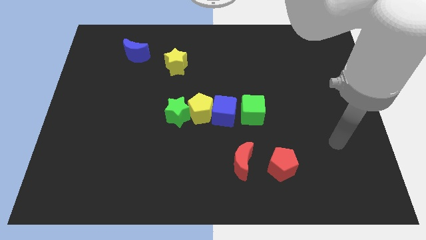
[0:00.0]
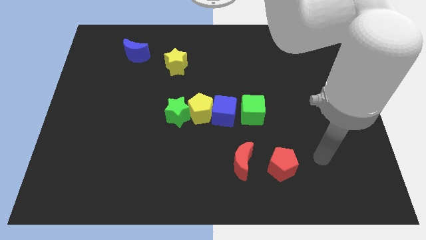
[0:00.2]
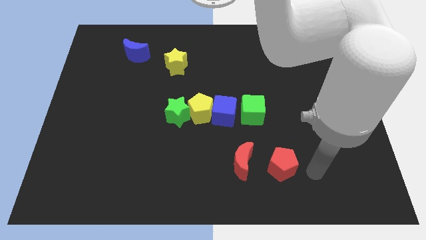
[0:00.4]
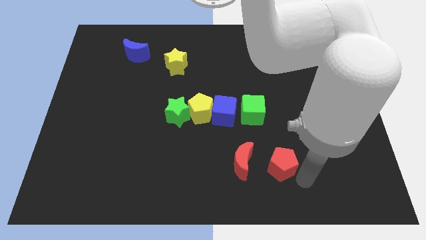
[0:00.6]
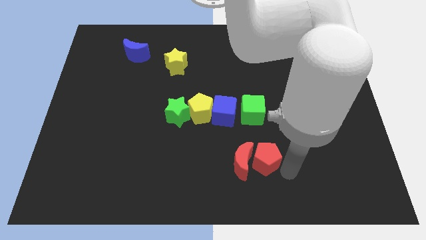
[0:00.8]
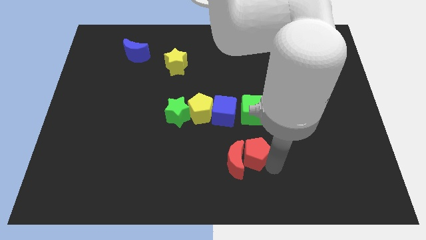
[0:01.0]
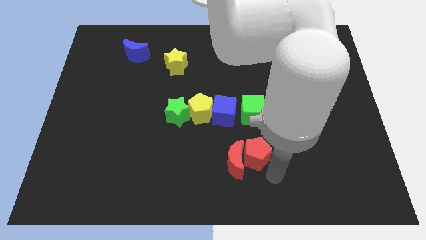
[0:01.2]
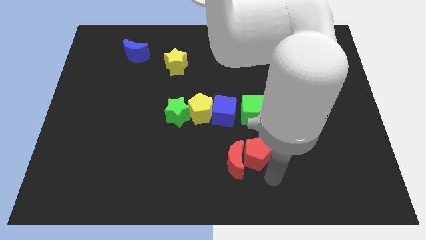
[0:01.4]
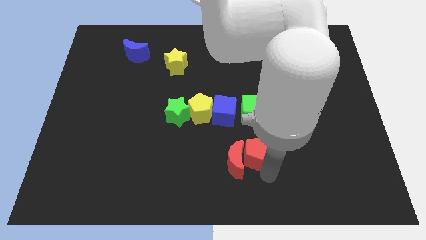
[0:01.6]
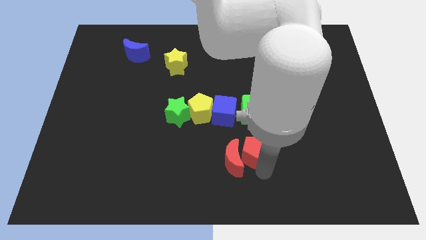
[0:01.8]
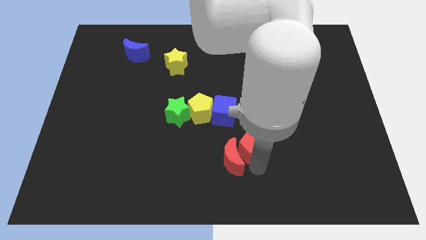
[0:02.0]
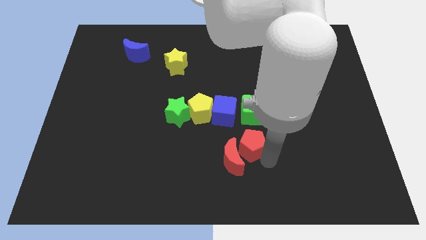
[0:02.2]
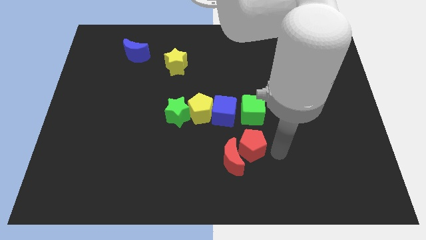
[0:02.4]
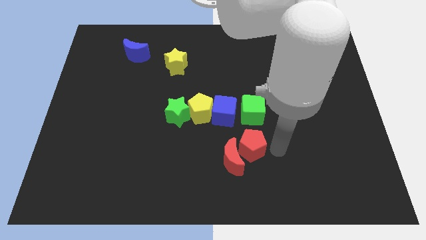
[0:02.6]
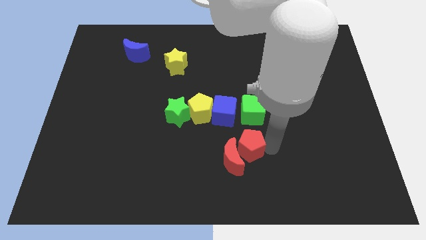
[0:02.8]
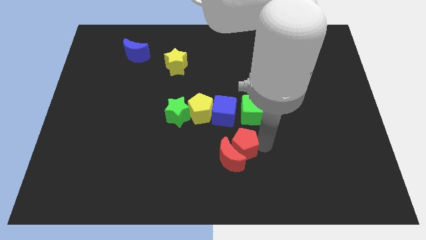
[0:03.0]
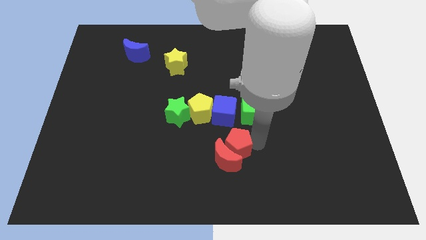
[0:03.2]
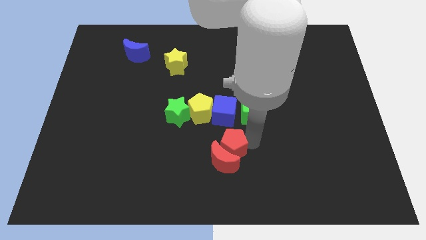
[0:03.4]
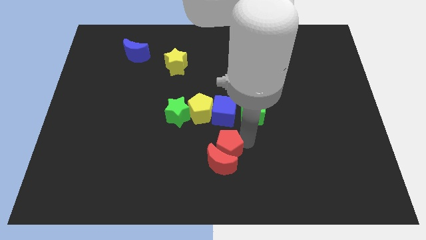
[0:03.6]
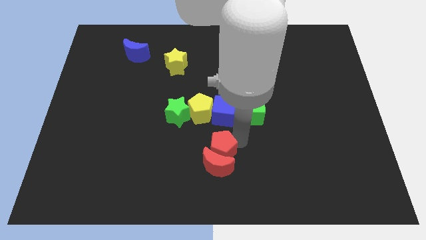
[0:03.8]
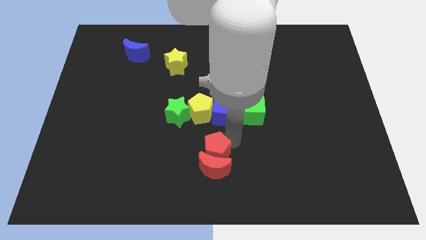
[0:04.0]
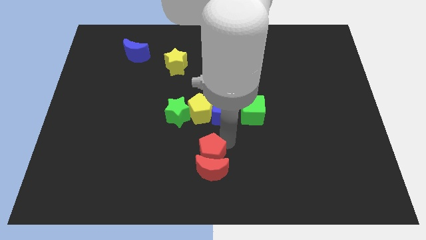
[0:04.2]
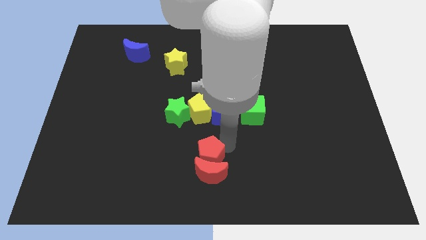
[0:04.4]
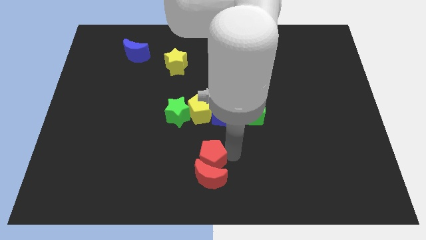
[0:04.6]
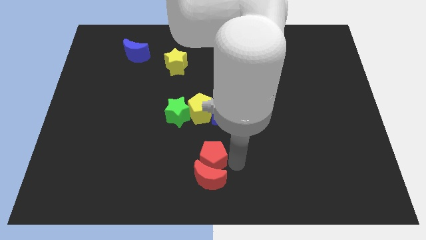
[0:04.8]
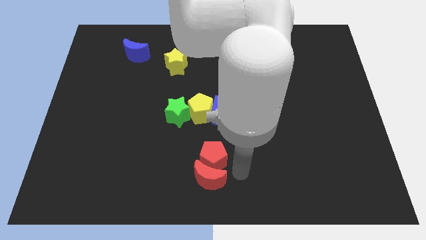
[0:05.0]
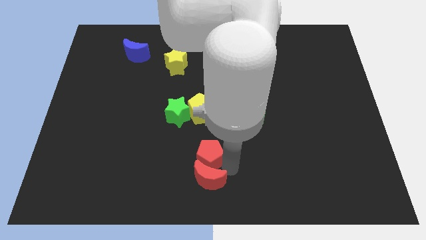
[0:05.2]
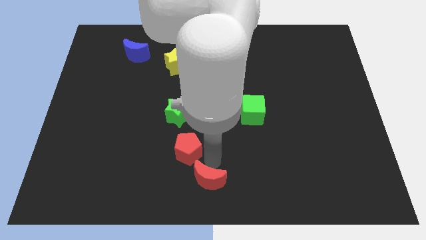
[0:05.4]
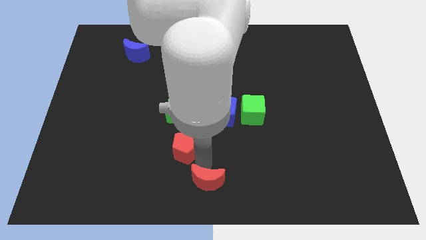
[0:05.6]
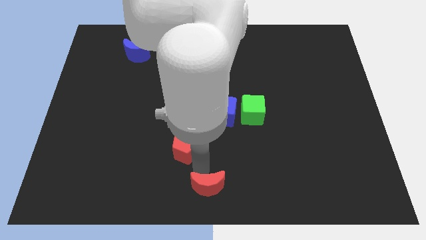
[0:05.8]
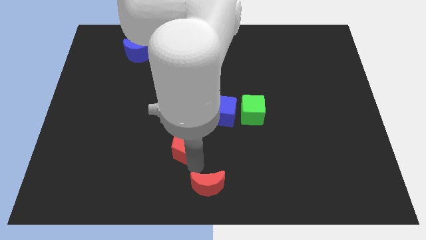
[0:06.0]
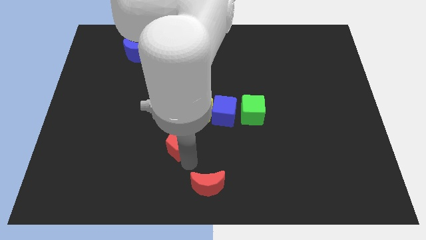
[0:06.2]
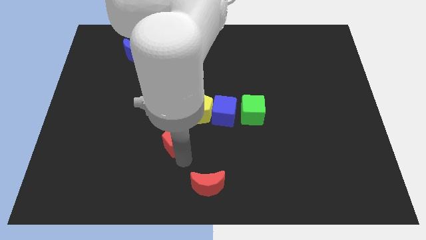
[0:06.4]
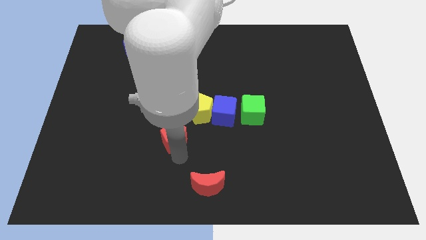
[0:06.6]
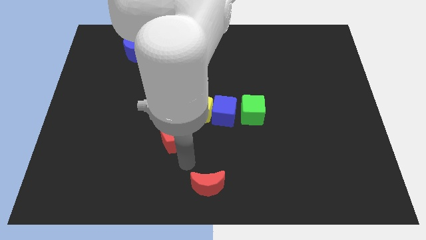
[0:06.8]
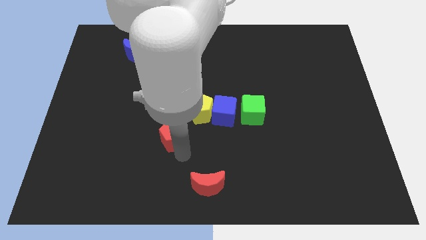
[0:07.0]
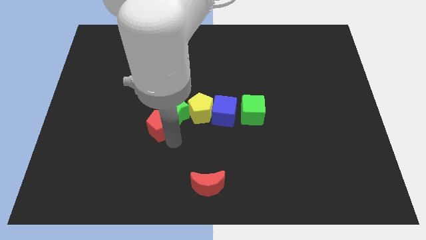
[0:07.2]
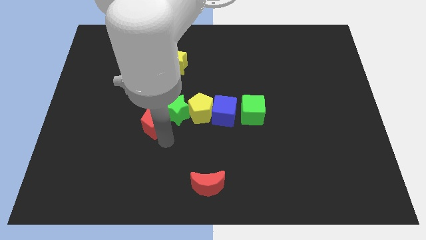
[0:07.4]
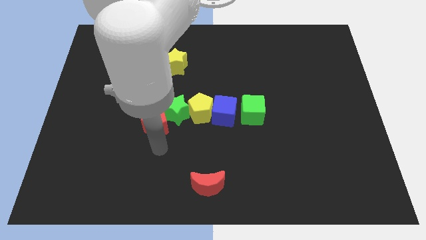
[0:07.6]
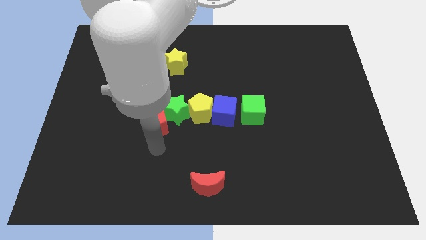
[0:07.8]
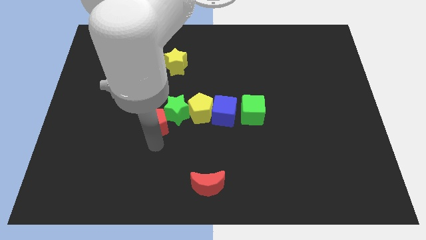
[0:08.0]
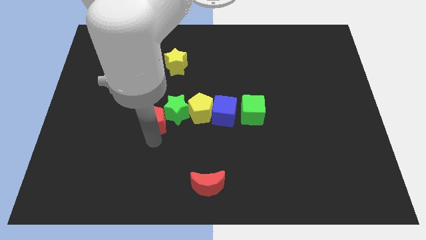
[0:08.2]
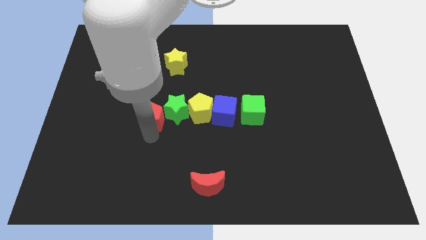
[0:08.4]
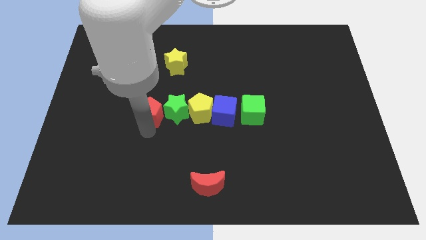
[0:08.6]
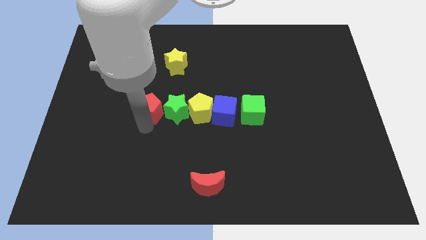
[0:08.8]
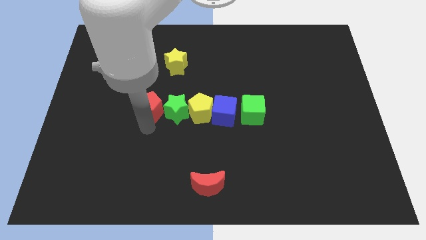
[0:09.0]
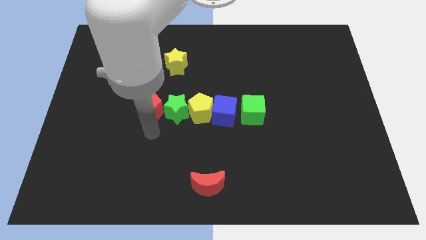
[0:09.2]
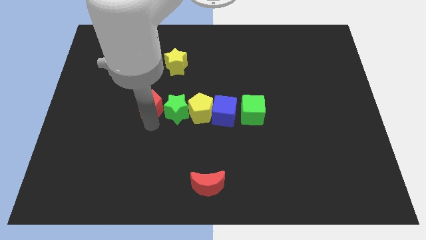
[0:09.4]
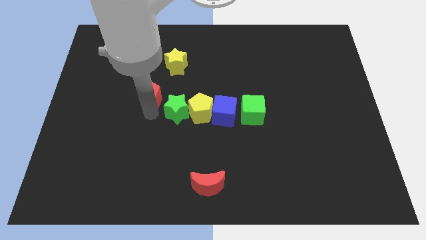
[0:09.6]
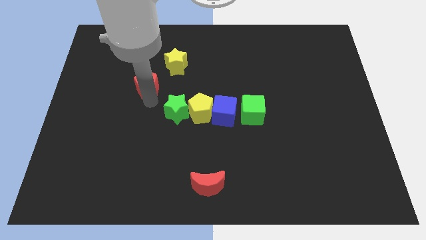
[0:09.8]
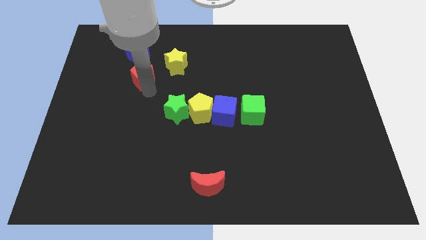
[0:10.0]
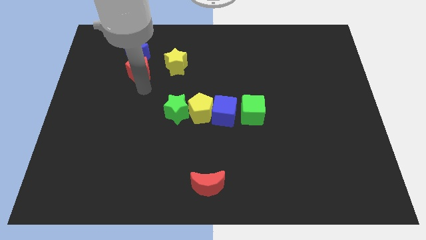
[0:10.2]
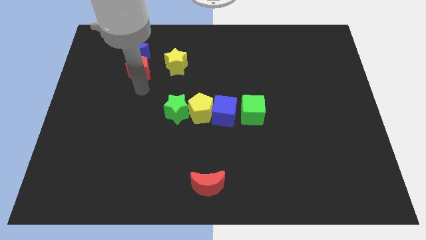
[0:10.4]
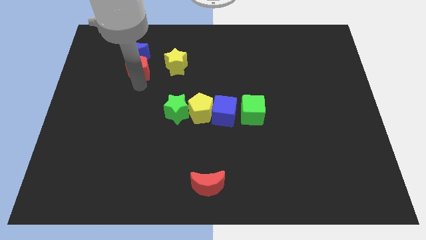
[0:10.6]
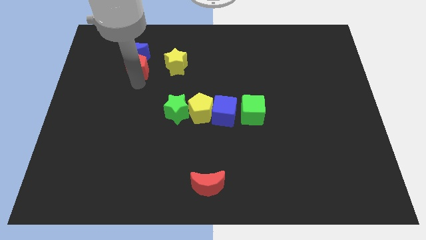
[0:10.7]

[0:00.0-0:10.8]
slide the red pentagon to the blue moon
